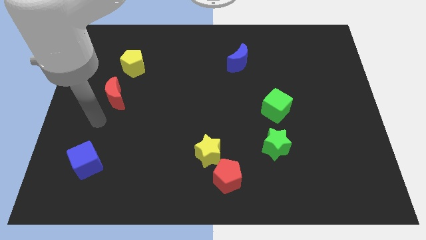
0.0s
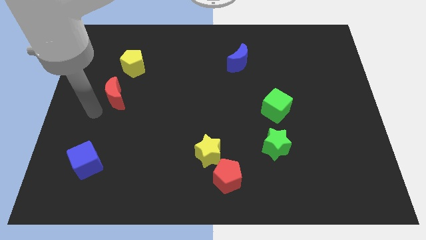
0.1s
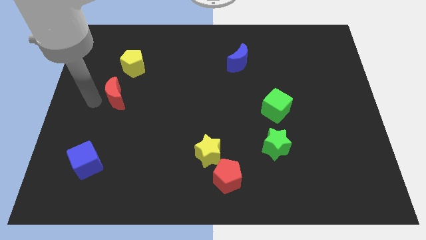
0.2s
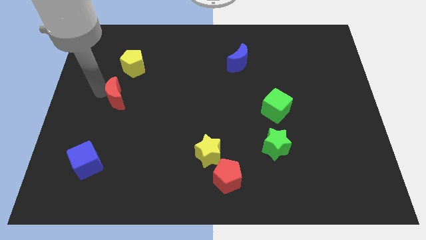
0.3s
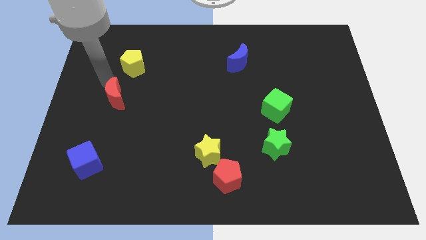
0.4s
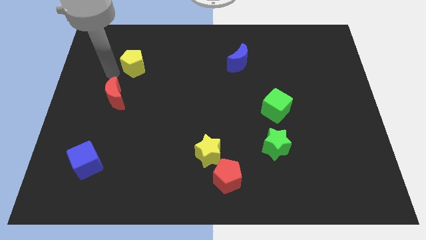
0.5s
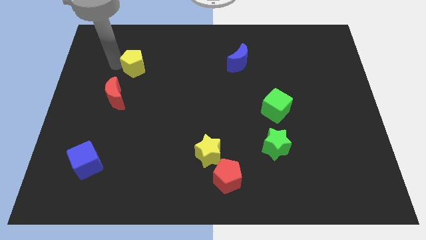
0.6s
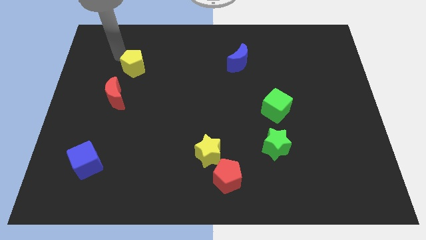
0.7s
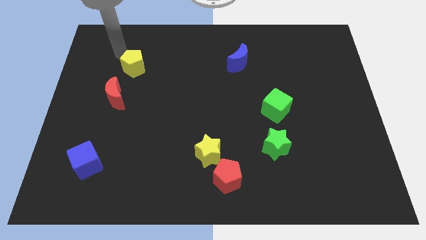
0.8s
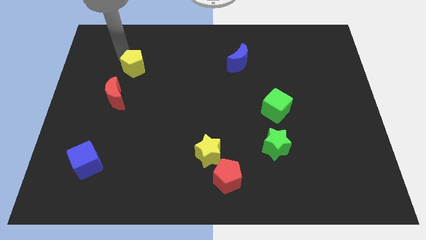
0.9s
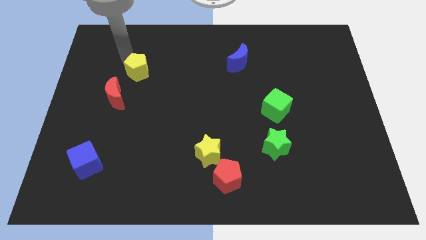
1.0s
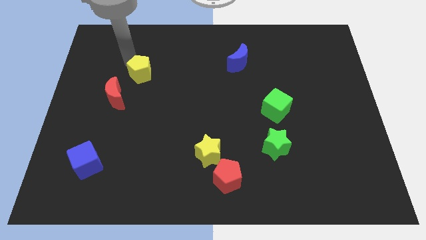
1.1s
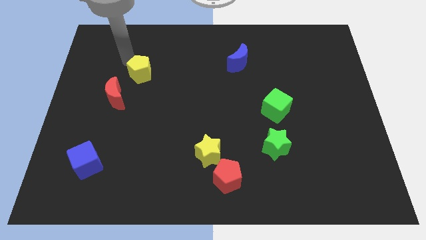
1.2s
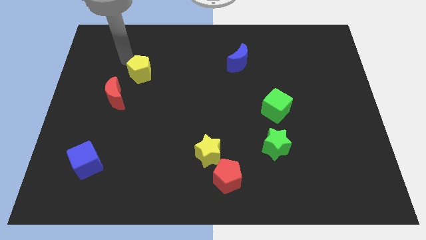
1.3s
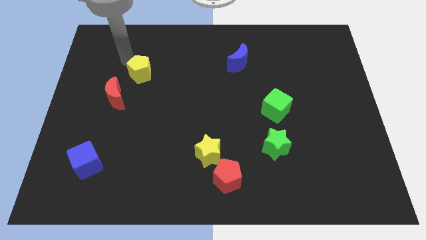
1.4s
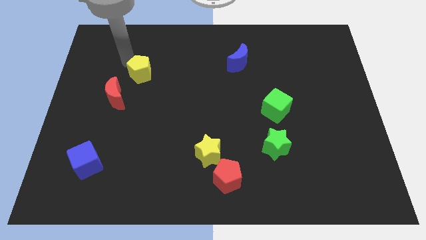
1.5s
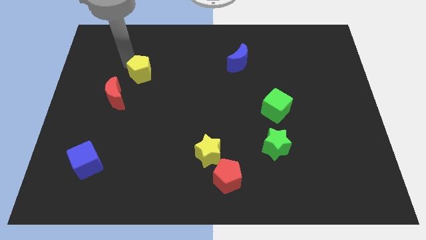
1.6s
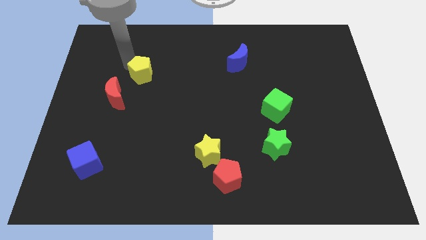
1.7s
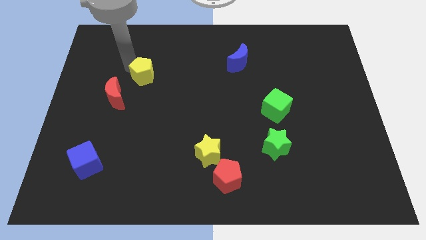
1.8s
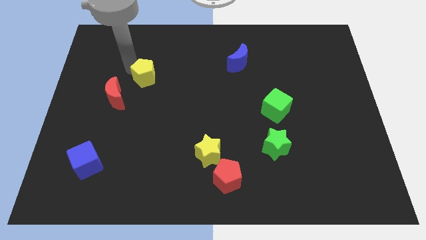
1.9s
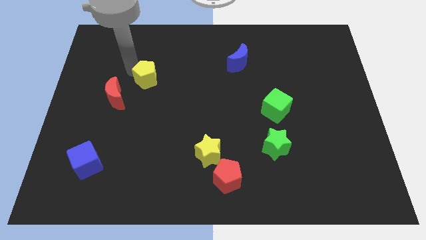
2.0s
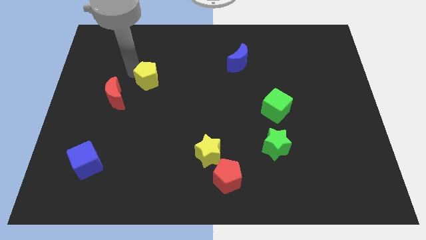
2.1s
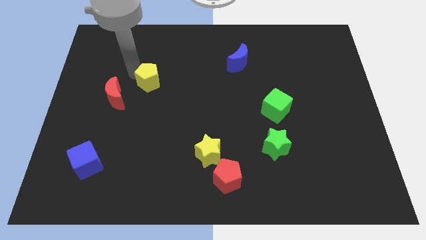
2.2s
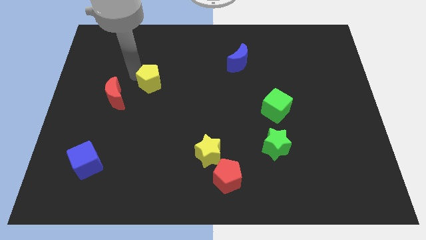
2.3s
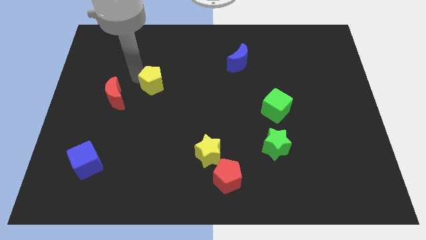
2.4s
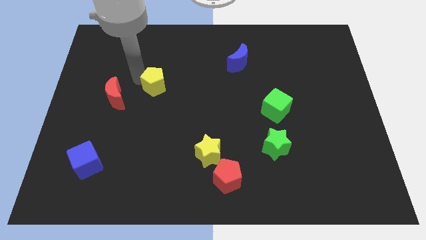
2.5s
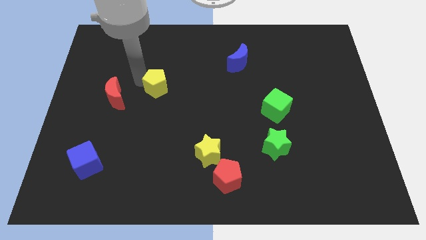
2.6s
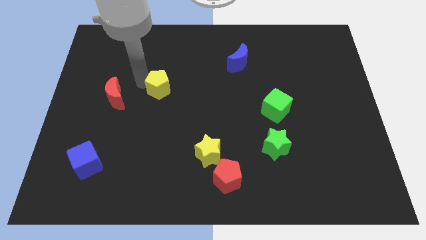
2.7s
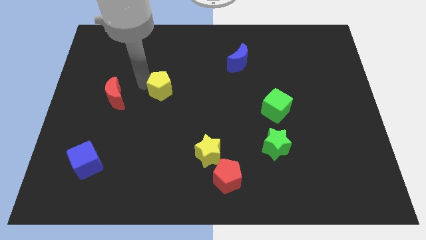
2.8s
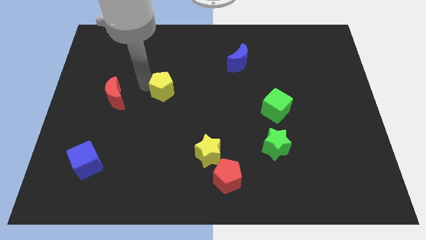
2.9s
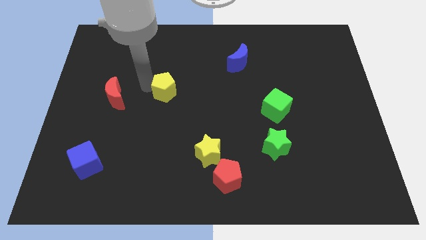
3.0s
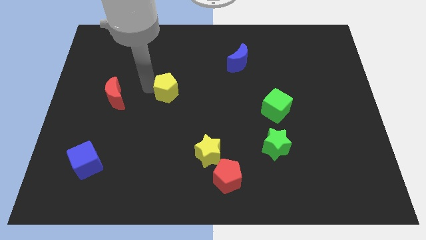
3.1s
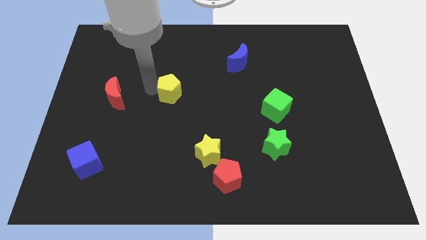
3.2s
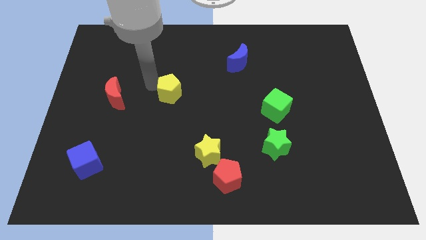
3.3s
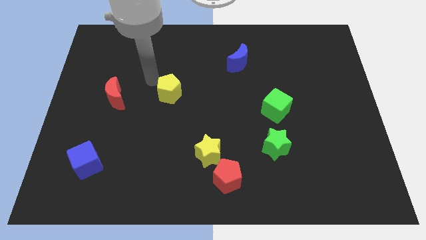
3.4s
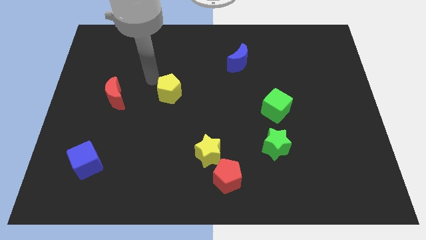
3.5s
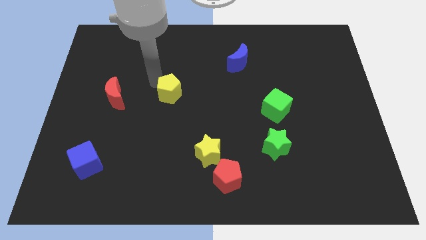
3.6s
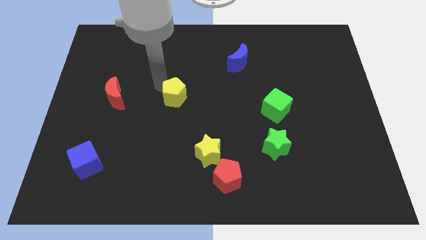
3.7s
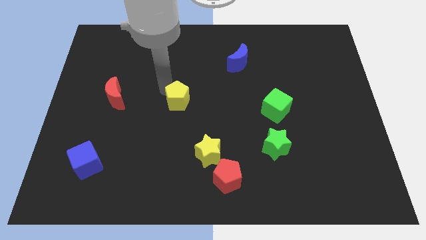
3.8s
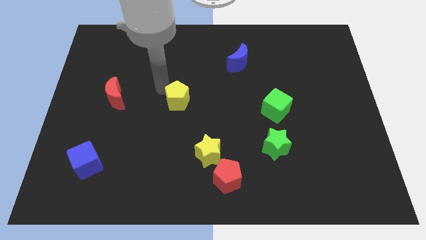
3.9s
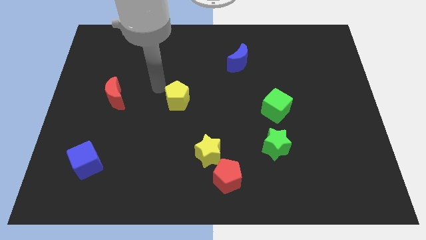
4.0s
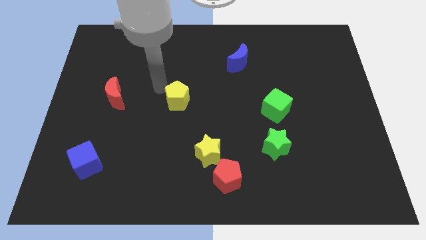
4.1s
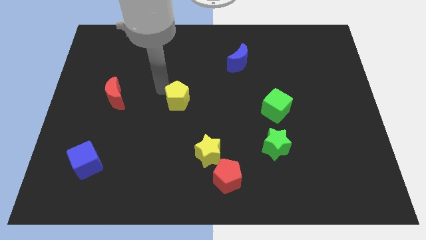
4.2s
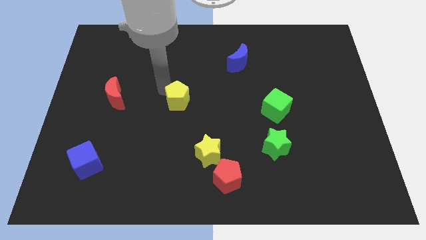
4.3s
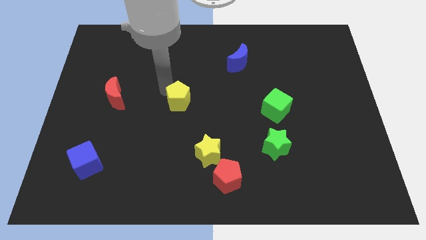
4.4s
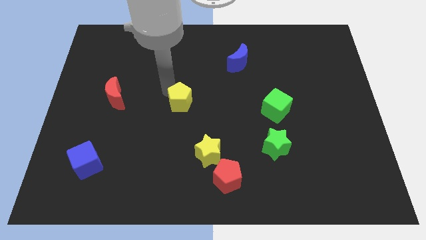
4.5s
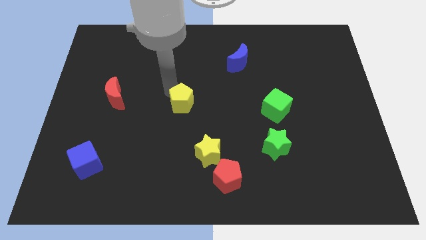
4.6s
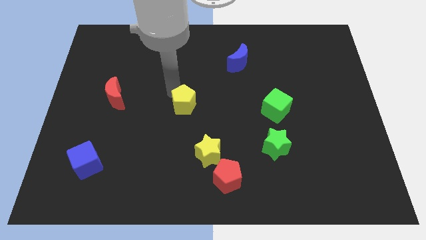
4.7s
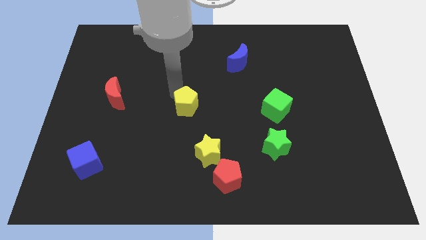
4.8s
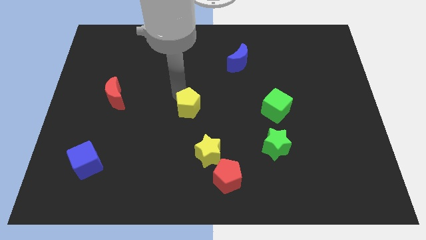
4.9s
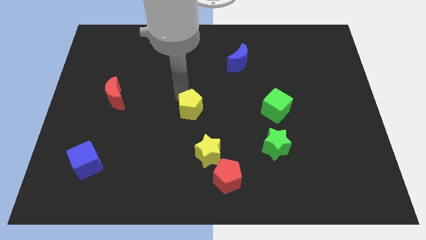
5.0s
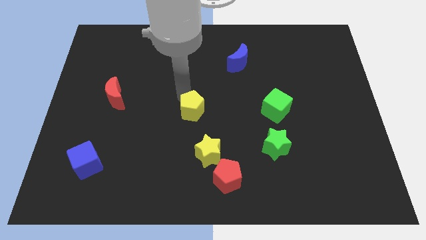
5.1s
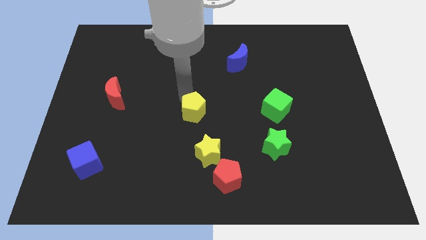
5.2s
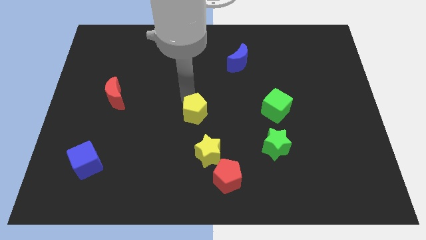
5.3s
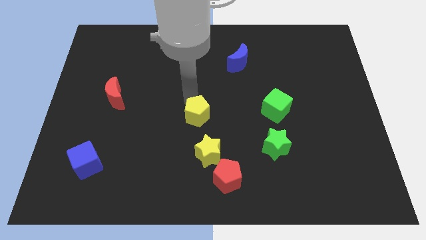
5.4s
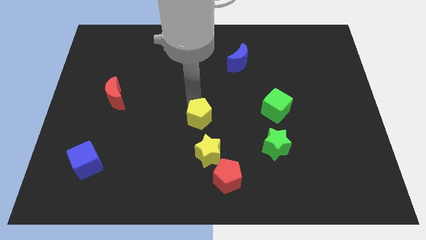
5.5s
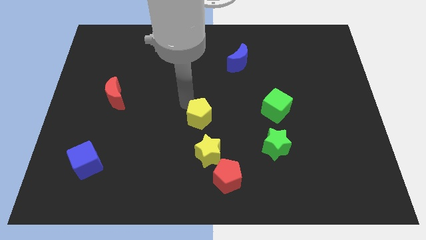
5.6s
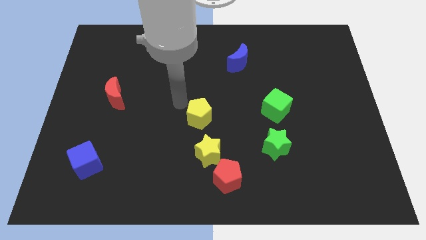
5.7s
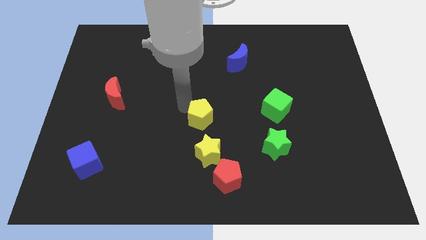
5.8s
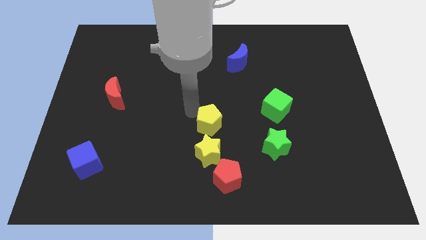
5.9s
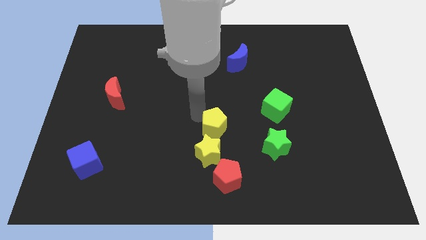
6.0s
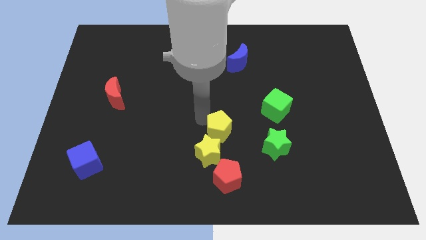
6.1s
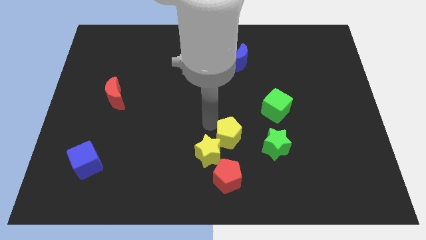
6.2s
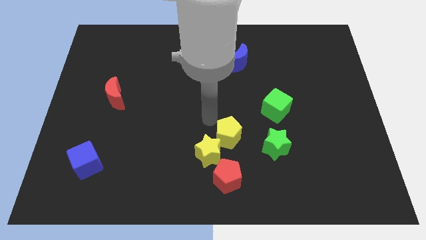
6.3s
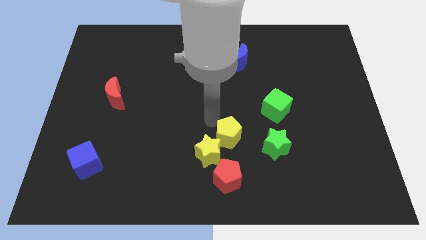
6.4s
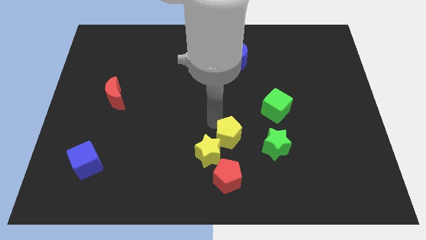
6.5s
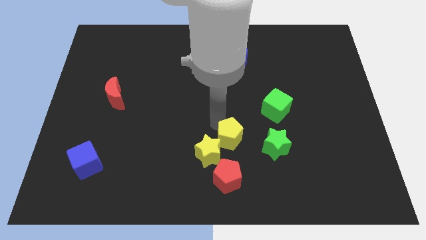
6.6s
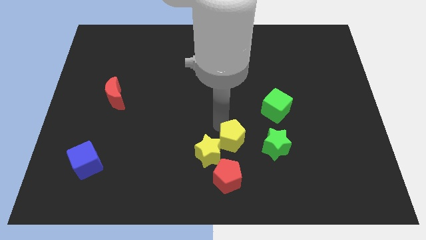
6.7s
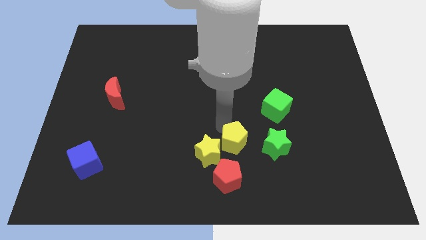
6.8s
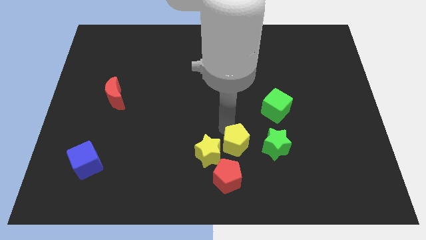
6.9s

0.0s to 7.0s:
move the yellow pentagon diagonally up and to the right of the red pentagon
